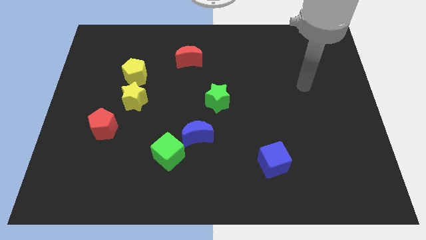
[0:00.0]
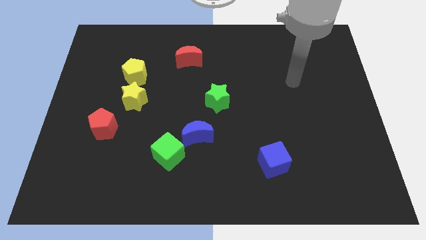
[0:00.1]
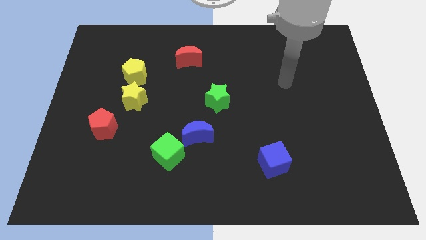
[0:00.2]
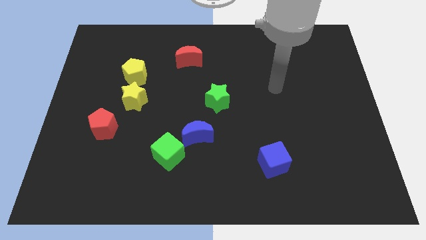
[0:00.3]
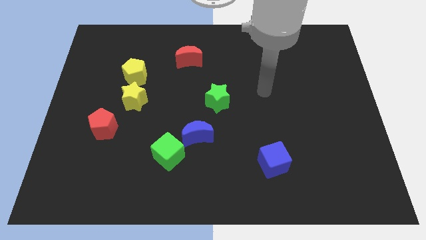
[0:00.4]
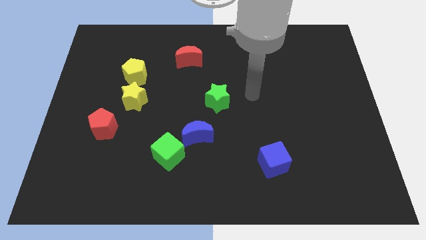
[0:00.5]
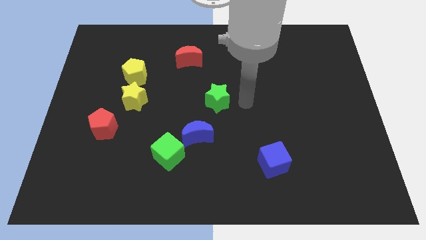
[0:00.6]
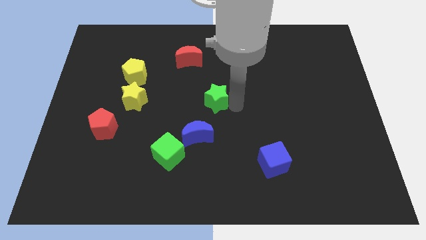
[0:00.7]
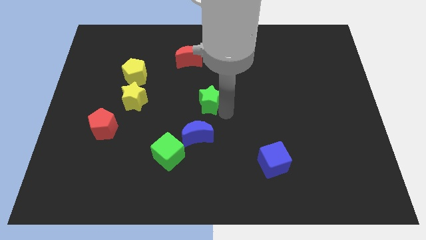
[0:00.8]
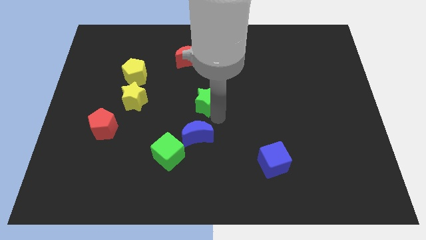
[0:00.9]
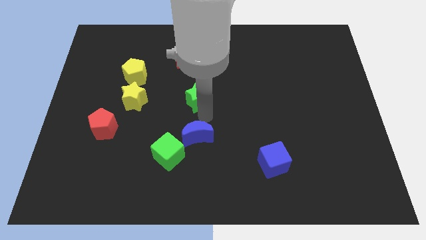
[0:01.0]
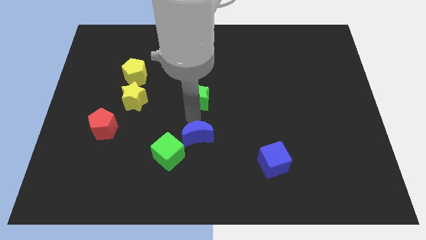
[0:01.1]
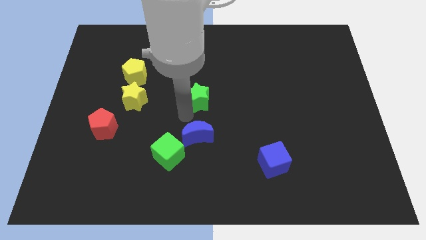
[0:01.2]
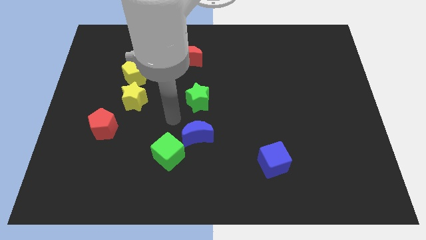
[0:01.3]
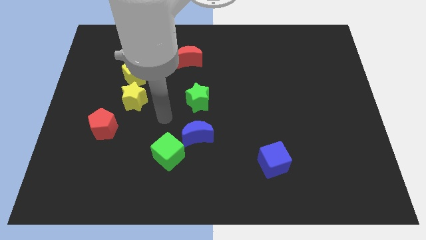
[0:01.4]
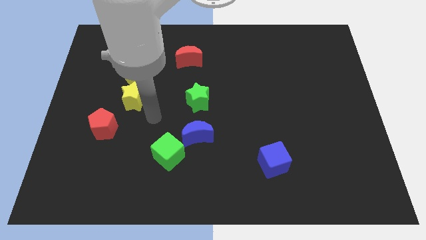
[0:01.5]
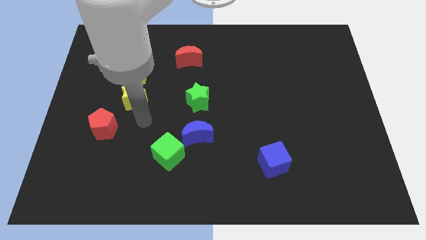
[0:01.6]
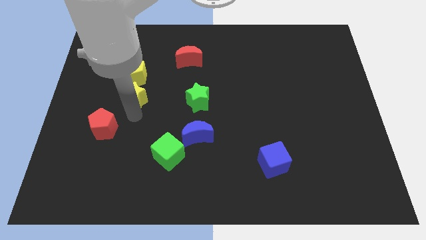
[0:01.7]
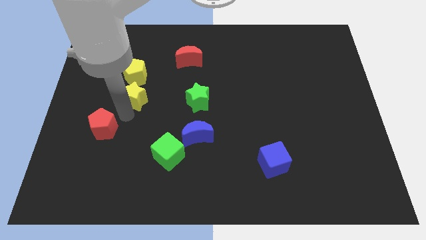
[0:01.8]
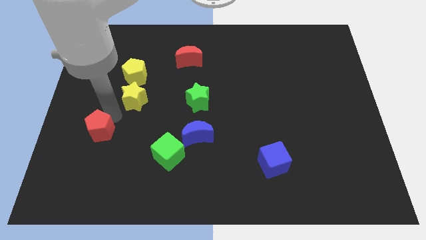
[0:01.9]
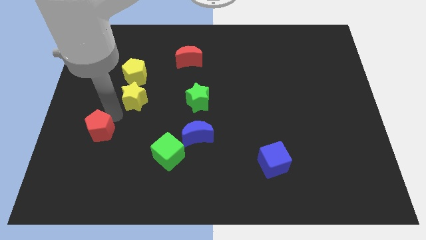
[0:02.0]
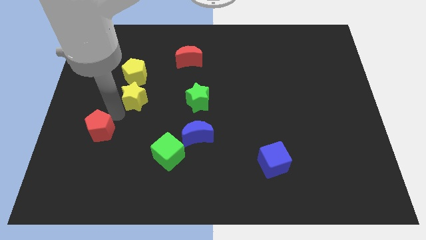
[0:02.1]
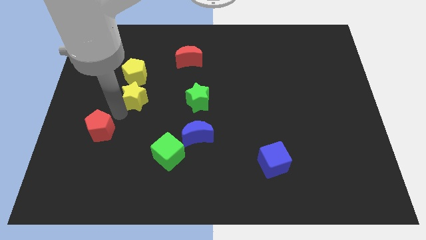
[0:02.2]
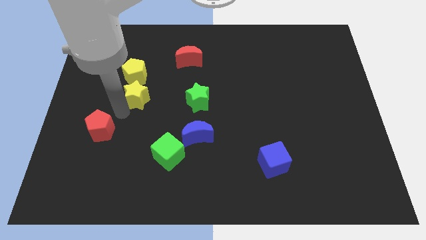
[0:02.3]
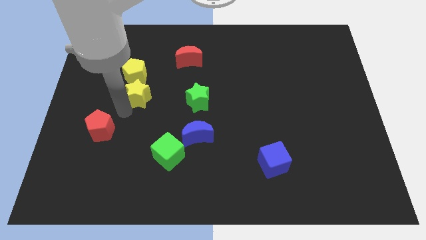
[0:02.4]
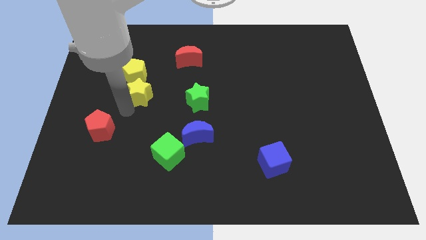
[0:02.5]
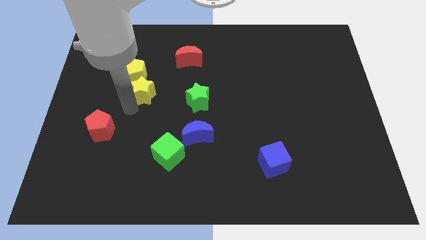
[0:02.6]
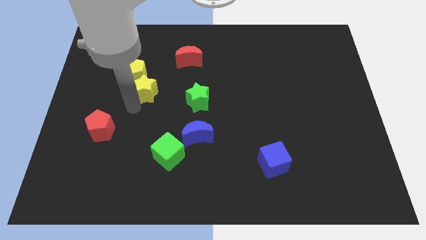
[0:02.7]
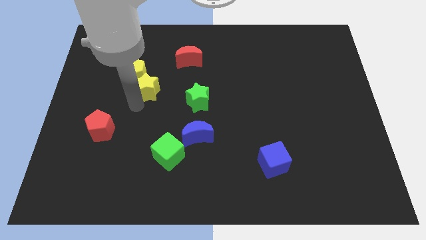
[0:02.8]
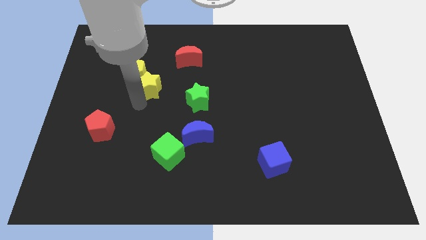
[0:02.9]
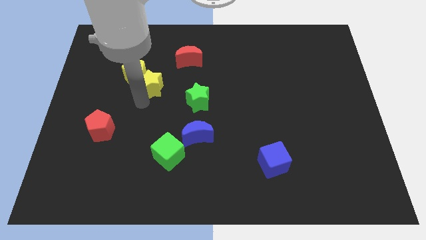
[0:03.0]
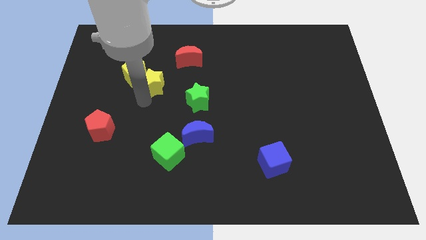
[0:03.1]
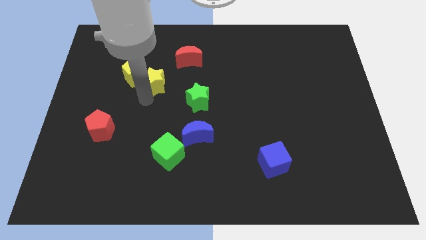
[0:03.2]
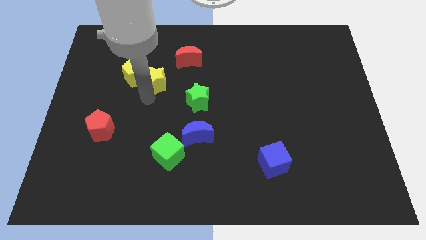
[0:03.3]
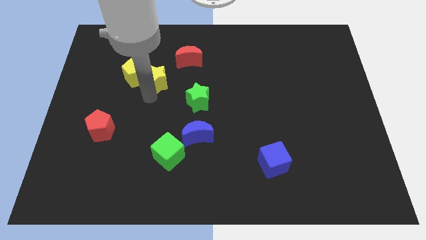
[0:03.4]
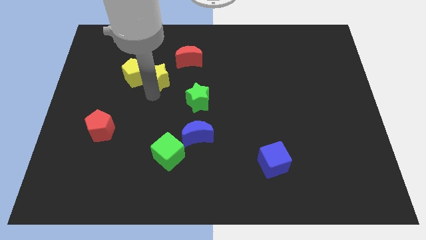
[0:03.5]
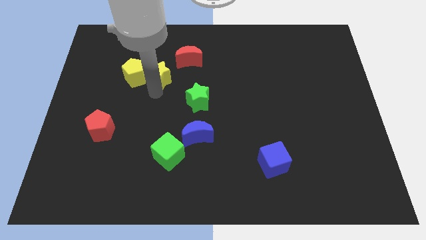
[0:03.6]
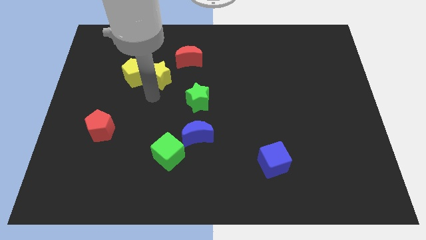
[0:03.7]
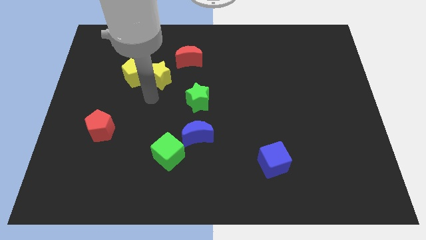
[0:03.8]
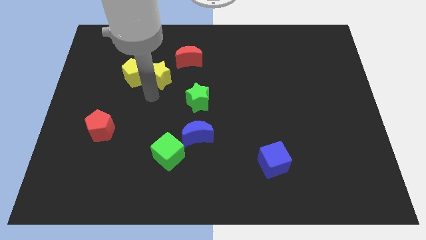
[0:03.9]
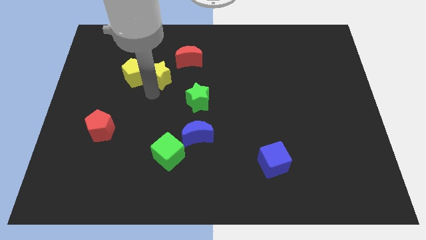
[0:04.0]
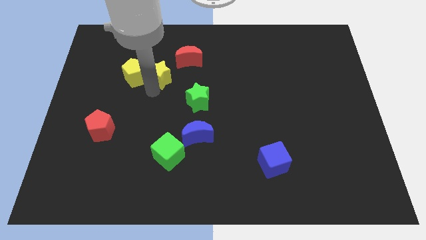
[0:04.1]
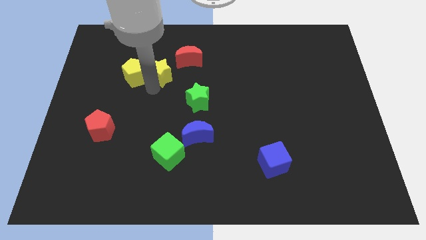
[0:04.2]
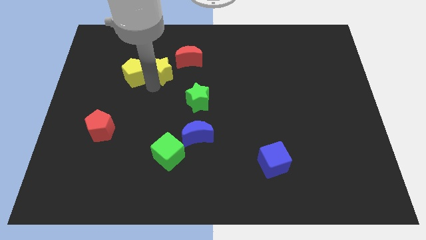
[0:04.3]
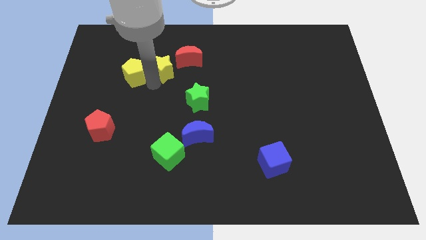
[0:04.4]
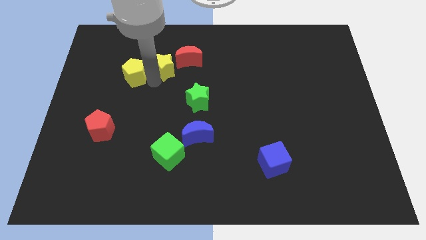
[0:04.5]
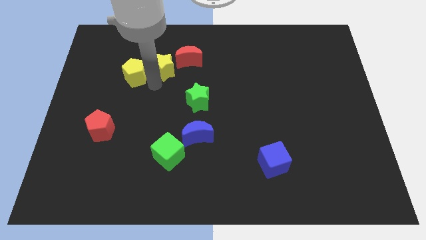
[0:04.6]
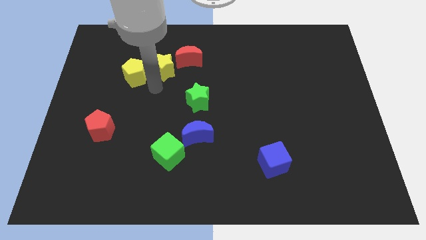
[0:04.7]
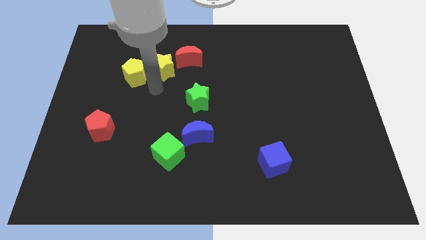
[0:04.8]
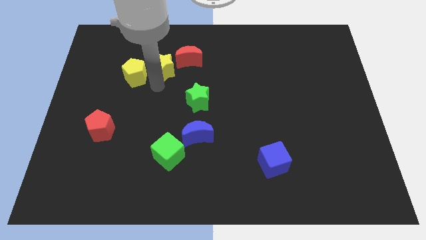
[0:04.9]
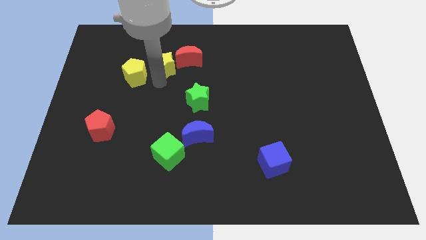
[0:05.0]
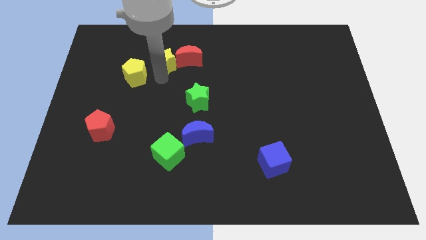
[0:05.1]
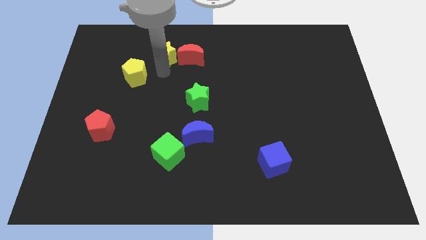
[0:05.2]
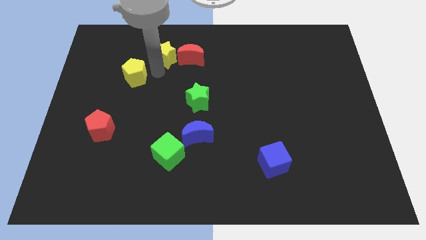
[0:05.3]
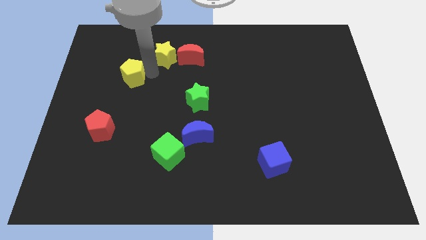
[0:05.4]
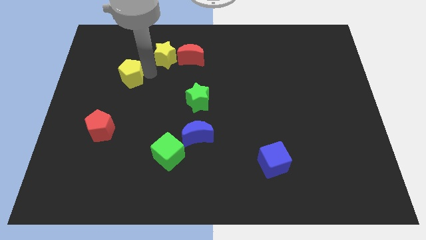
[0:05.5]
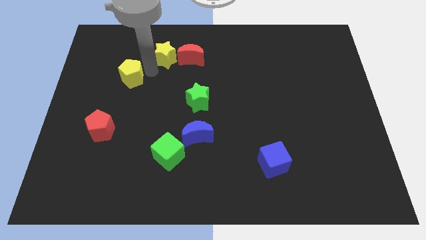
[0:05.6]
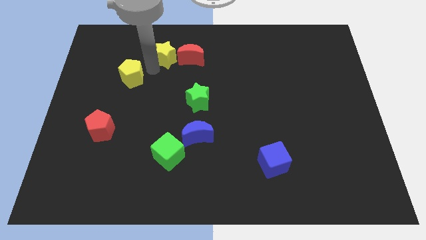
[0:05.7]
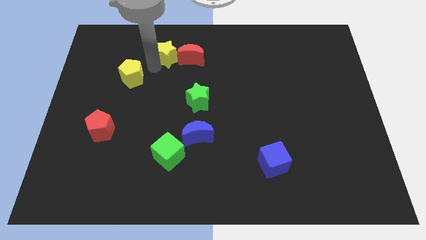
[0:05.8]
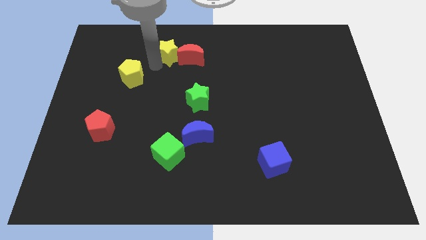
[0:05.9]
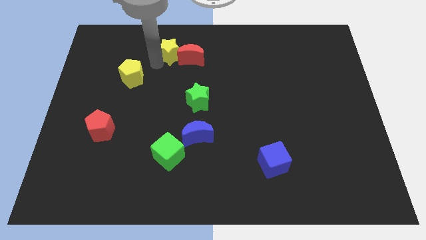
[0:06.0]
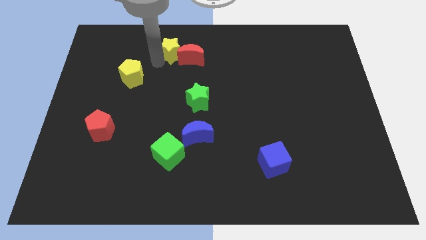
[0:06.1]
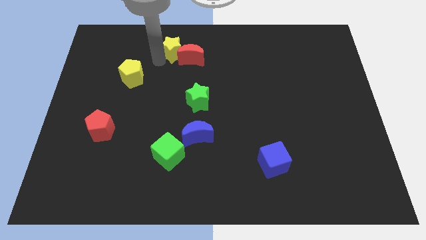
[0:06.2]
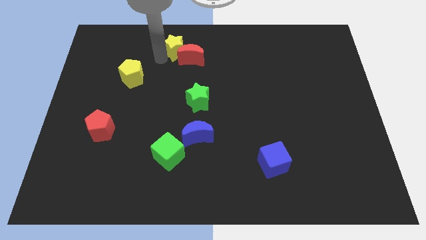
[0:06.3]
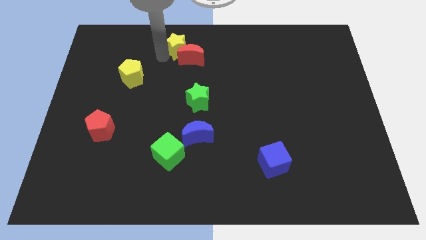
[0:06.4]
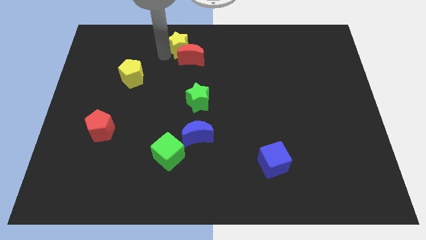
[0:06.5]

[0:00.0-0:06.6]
slide the yellow star to the top side
